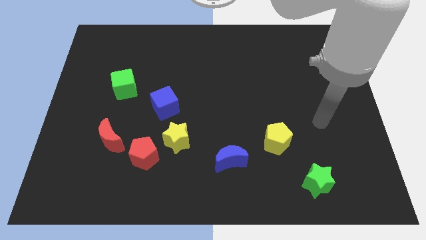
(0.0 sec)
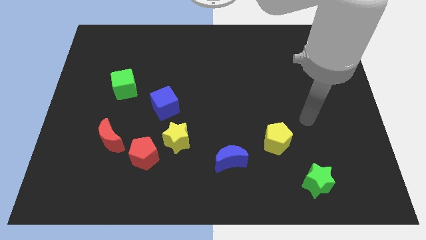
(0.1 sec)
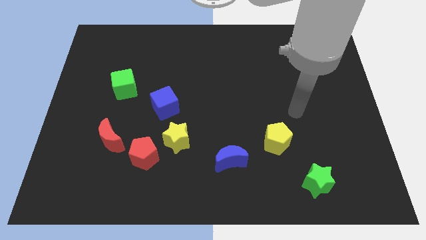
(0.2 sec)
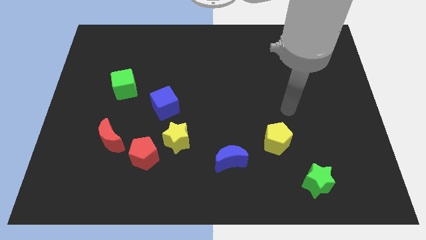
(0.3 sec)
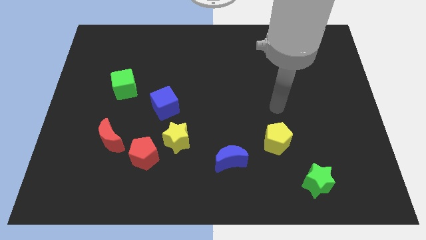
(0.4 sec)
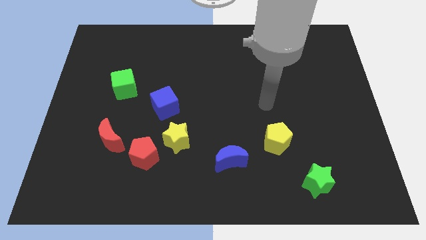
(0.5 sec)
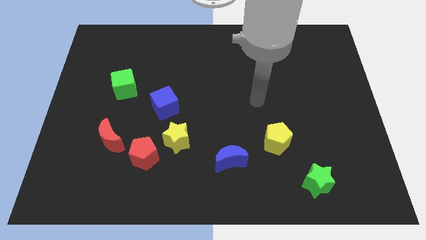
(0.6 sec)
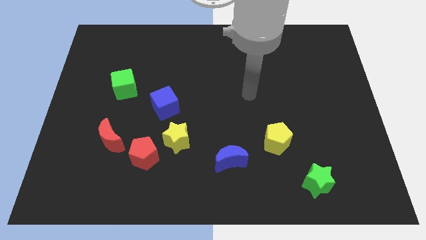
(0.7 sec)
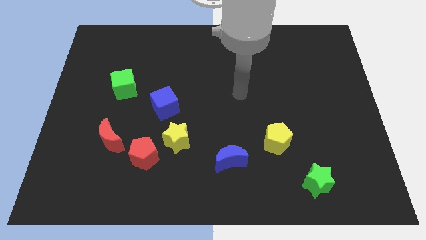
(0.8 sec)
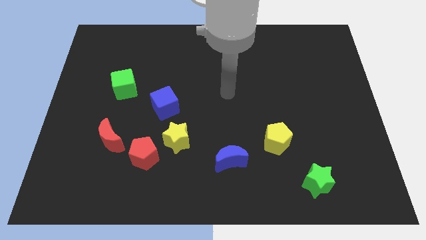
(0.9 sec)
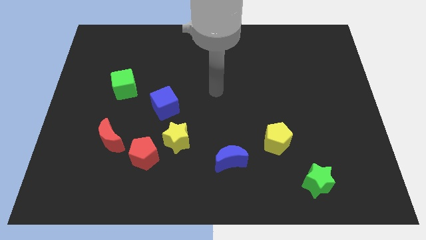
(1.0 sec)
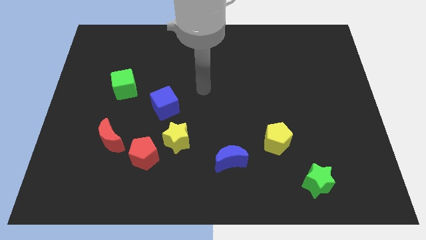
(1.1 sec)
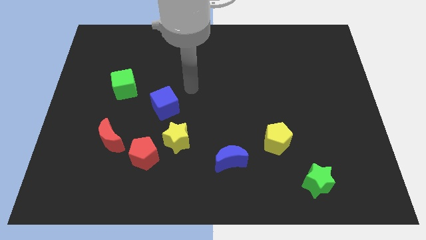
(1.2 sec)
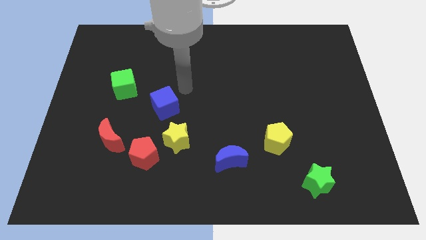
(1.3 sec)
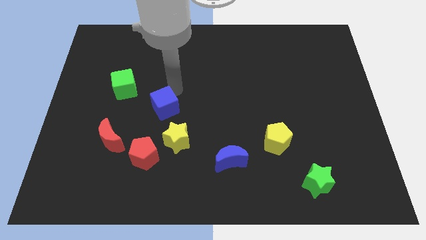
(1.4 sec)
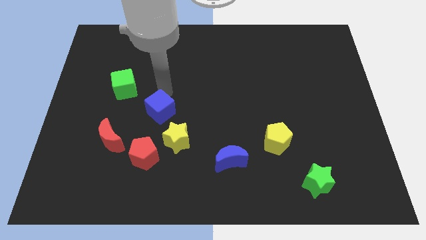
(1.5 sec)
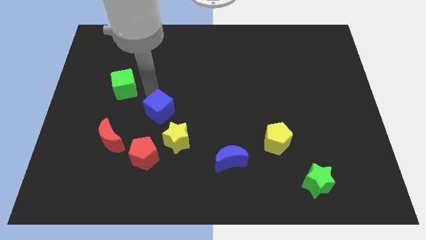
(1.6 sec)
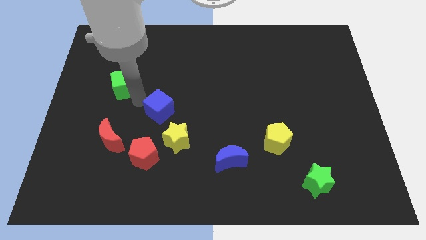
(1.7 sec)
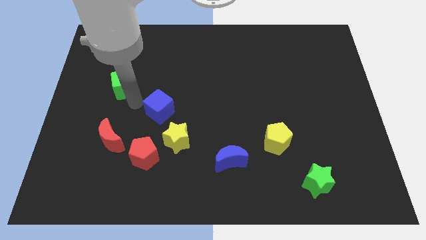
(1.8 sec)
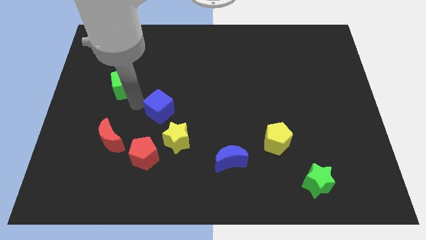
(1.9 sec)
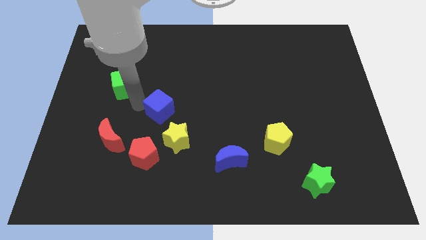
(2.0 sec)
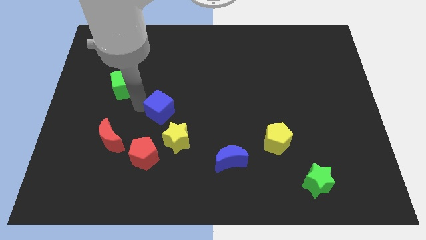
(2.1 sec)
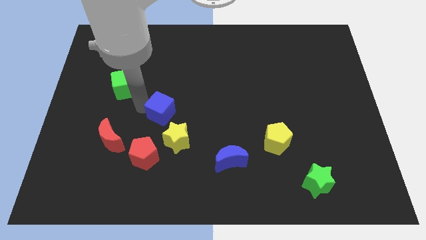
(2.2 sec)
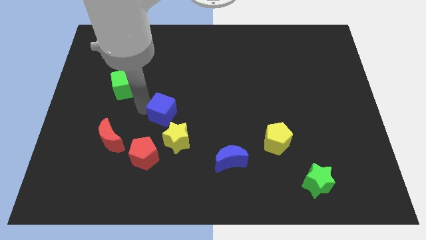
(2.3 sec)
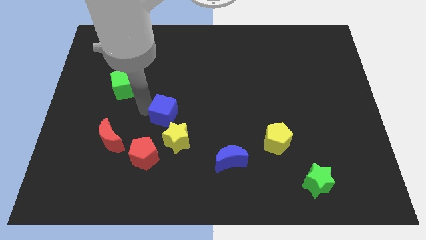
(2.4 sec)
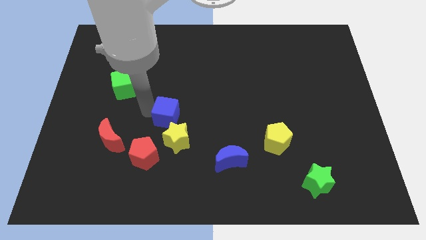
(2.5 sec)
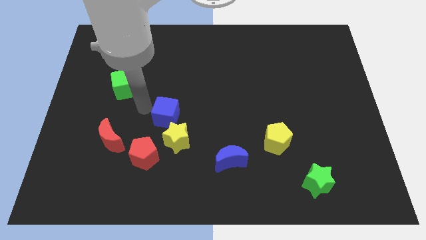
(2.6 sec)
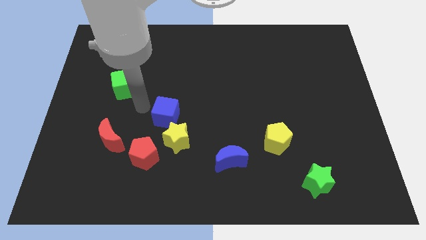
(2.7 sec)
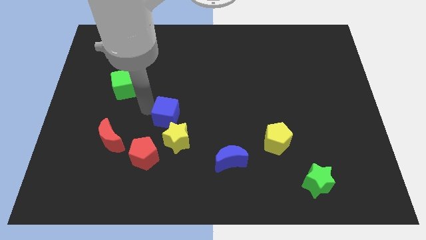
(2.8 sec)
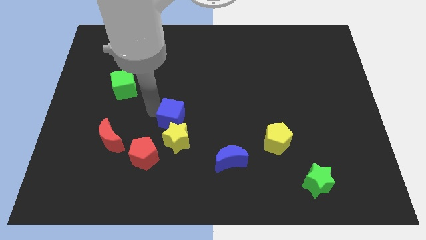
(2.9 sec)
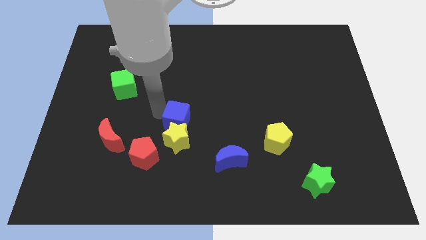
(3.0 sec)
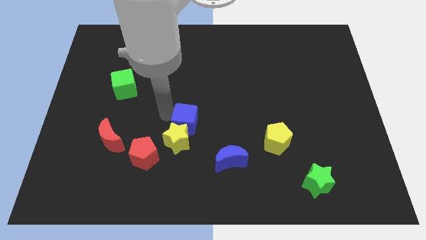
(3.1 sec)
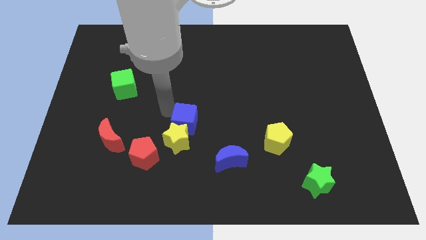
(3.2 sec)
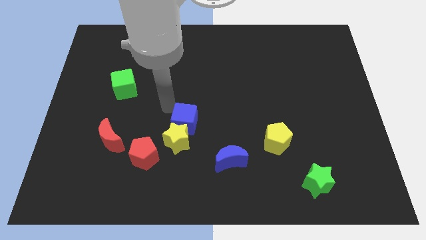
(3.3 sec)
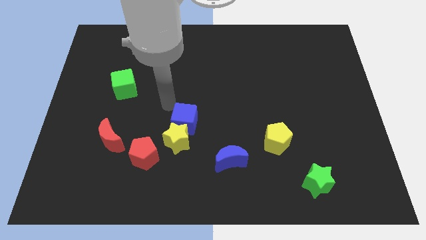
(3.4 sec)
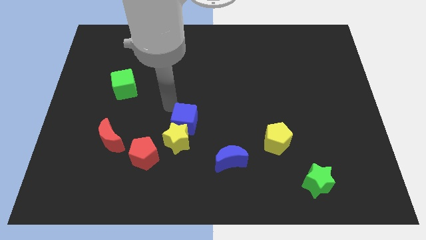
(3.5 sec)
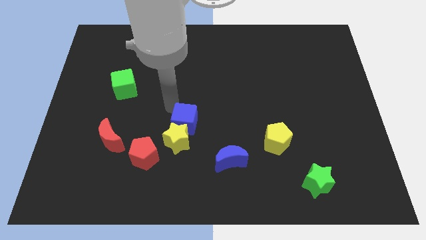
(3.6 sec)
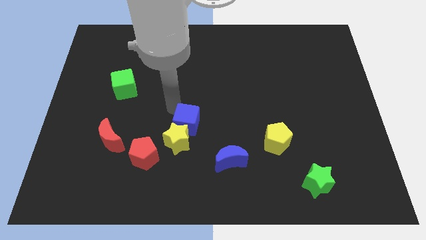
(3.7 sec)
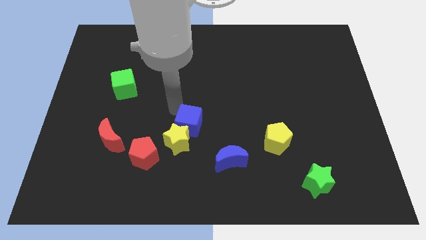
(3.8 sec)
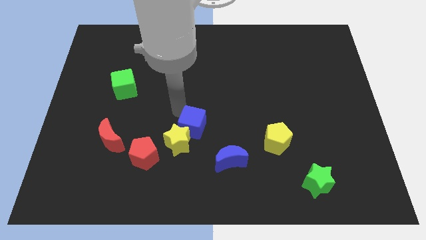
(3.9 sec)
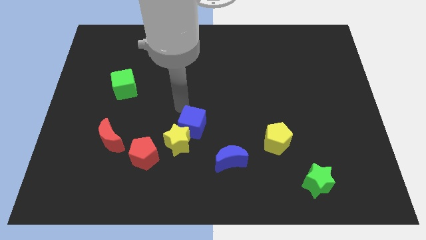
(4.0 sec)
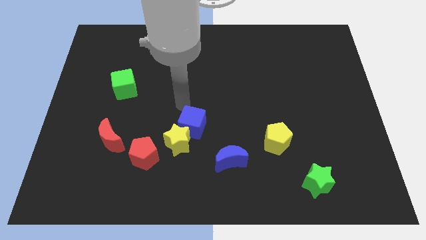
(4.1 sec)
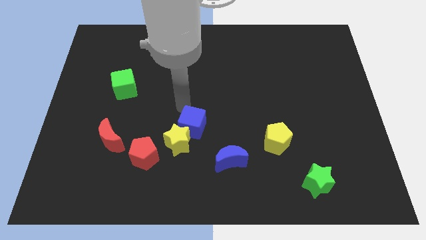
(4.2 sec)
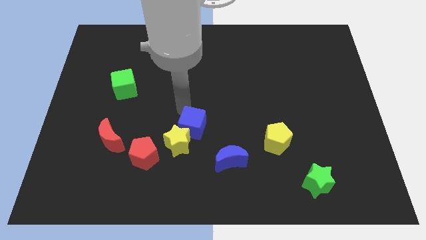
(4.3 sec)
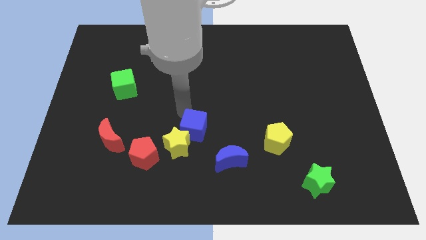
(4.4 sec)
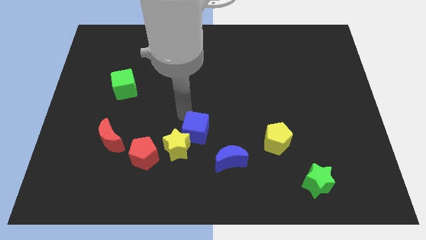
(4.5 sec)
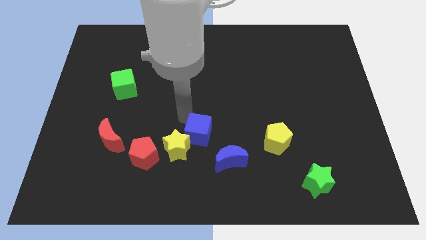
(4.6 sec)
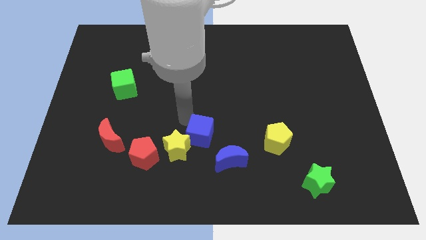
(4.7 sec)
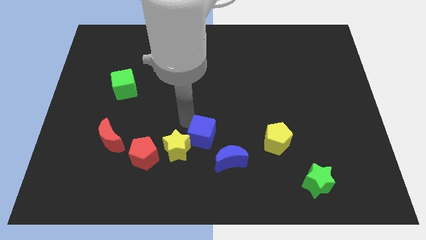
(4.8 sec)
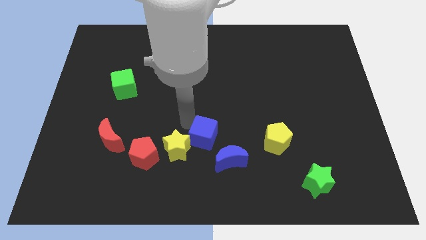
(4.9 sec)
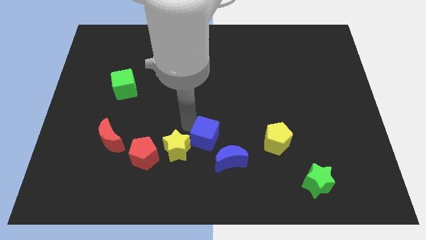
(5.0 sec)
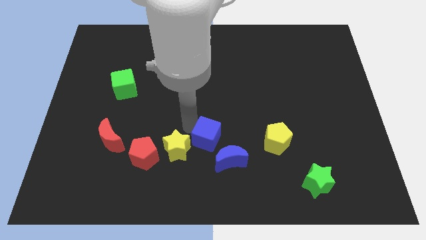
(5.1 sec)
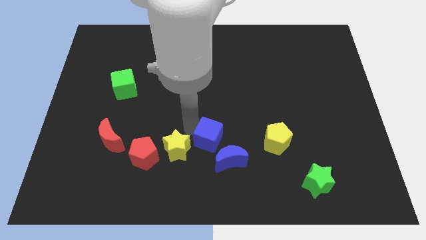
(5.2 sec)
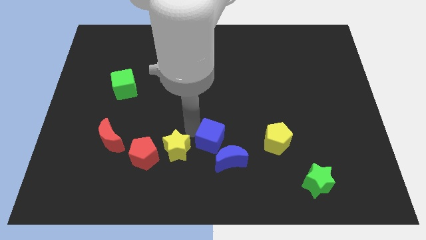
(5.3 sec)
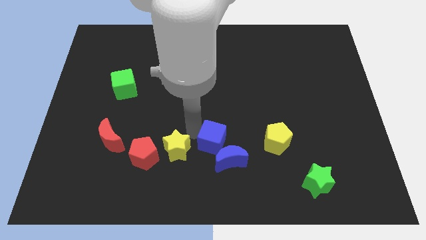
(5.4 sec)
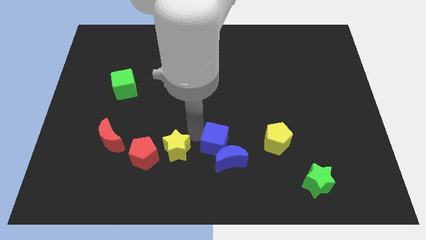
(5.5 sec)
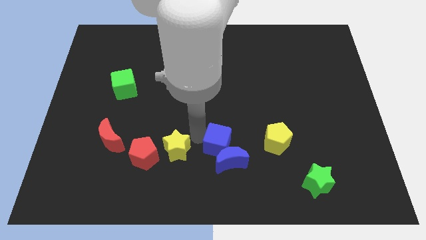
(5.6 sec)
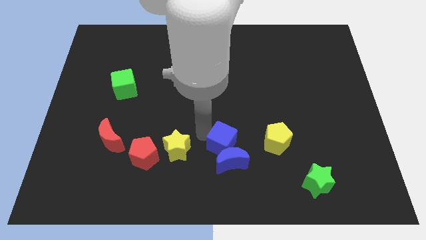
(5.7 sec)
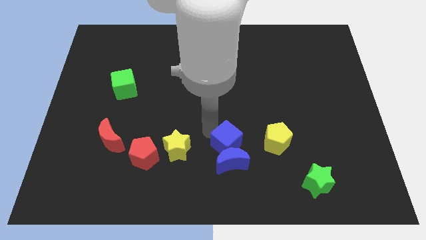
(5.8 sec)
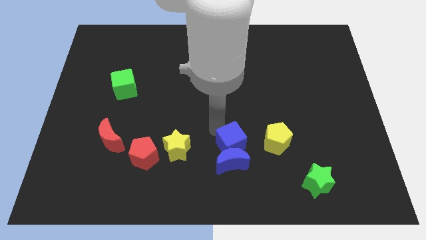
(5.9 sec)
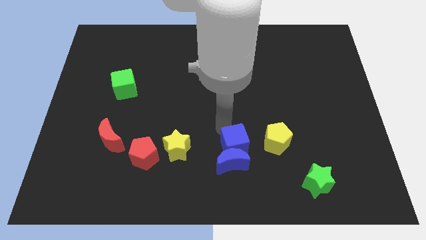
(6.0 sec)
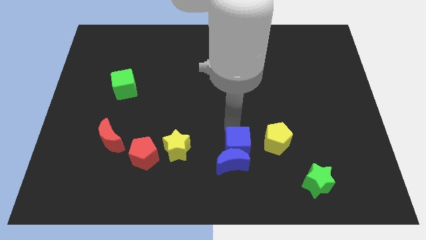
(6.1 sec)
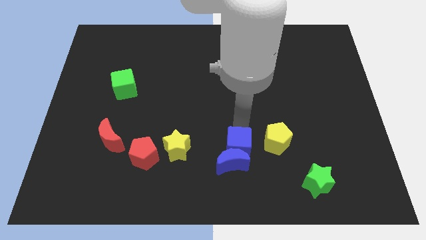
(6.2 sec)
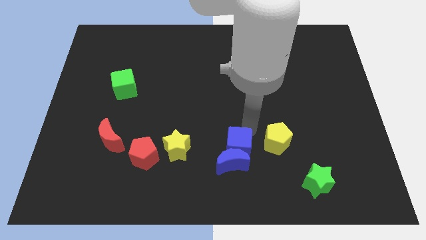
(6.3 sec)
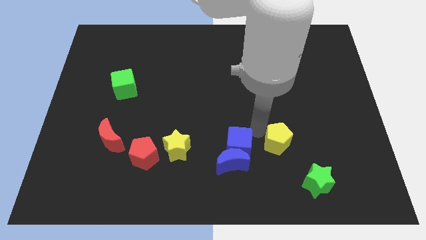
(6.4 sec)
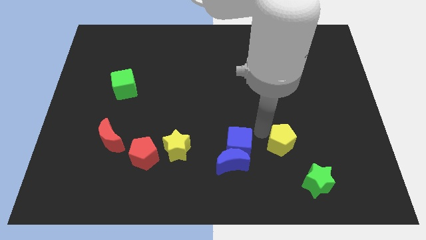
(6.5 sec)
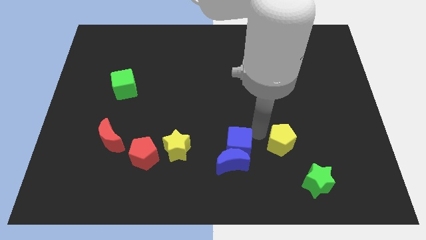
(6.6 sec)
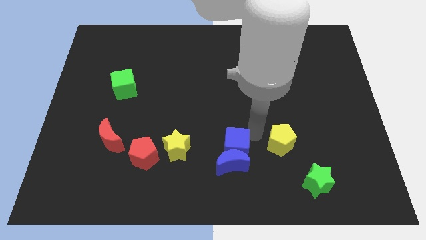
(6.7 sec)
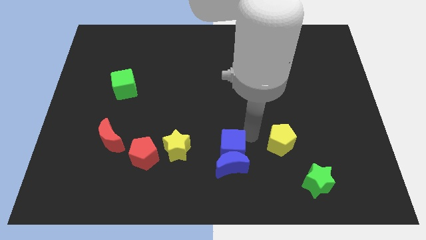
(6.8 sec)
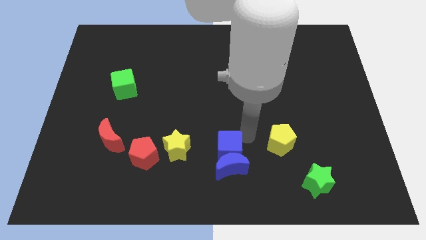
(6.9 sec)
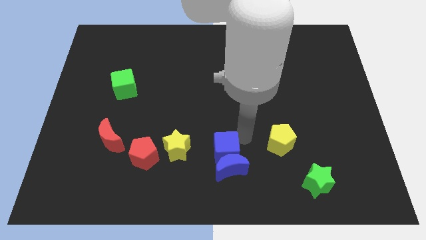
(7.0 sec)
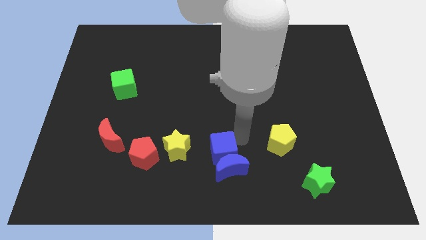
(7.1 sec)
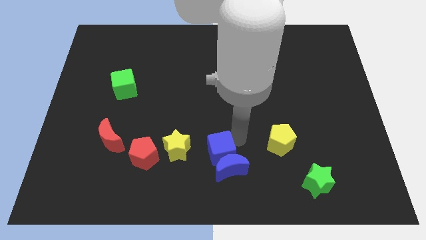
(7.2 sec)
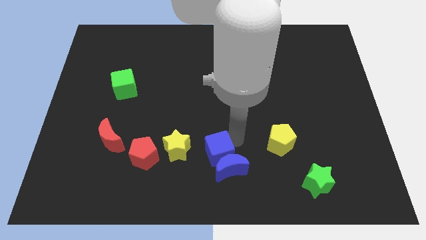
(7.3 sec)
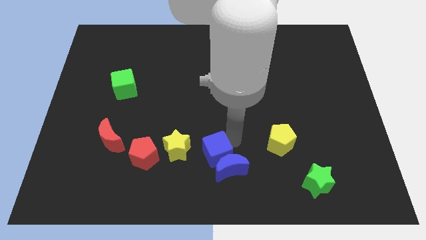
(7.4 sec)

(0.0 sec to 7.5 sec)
slide the blue cube to the bottom side
